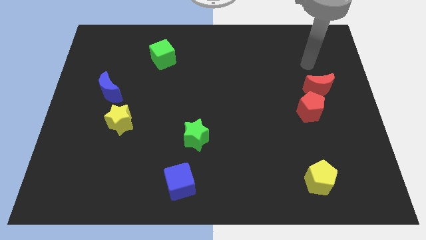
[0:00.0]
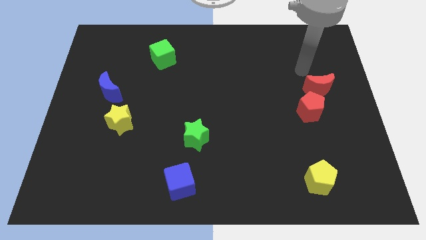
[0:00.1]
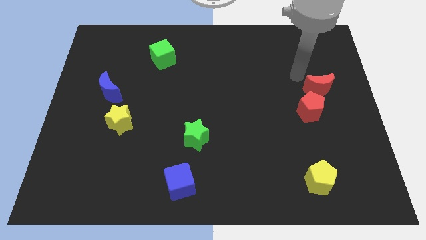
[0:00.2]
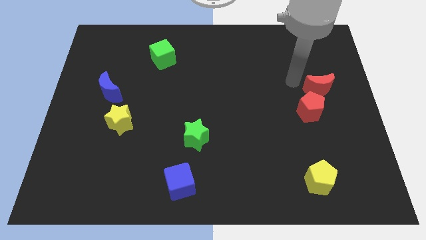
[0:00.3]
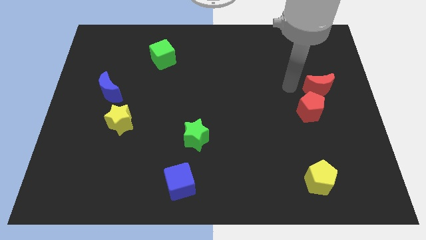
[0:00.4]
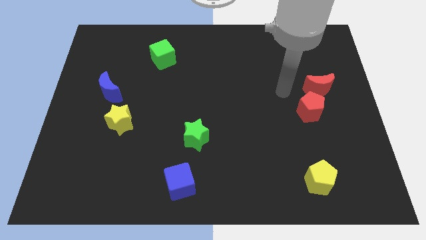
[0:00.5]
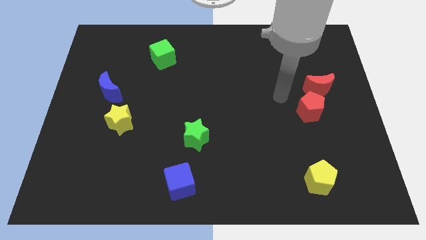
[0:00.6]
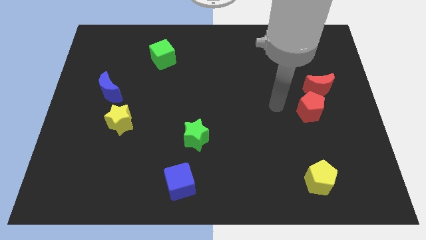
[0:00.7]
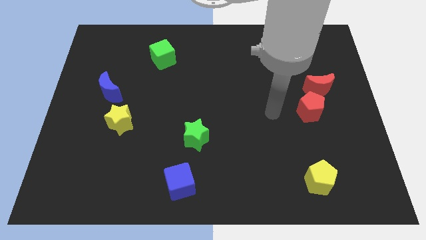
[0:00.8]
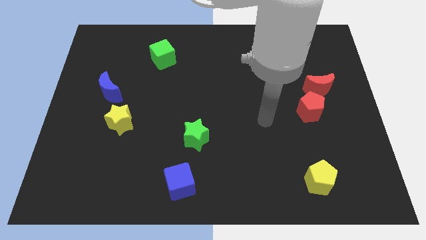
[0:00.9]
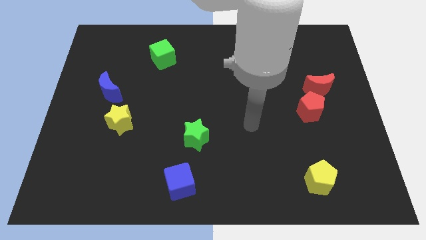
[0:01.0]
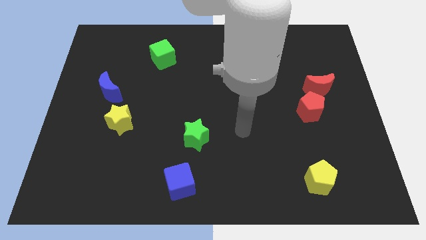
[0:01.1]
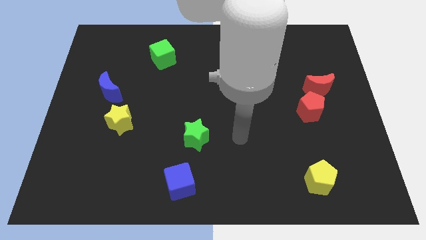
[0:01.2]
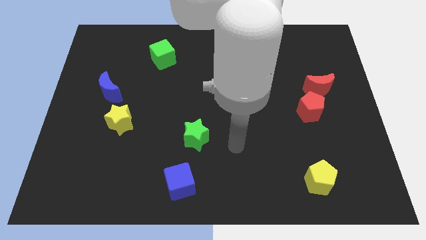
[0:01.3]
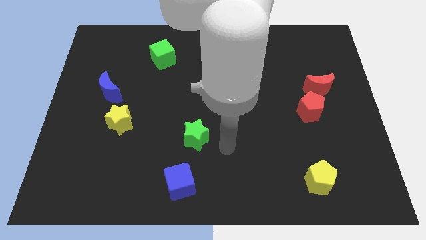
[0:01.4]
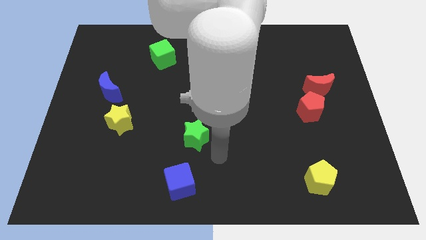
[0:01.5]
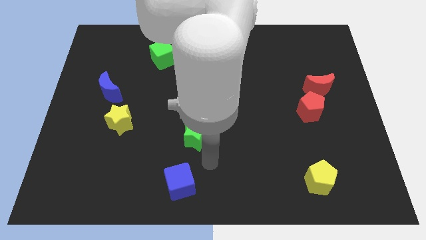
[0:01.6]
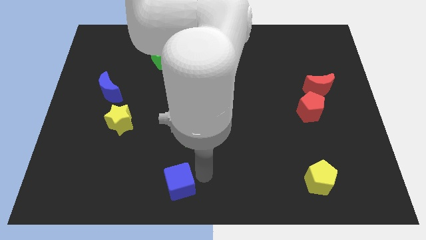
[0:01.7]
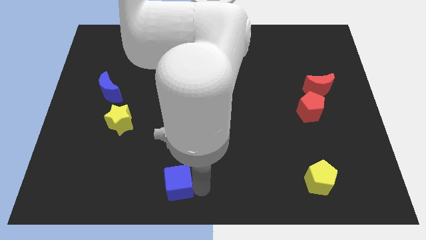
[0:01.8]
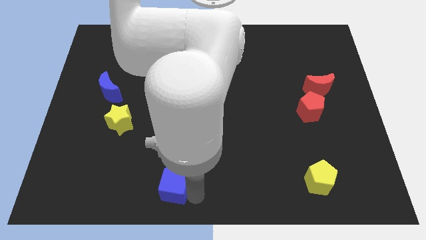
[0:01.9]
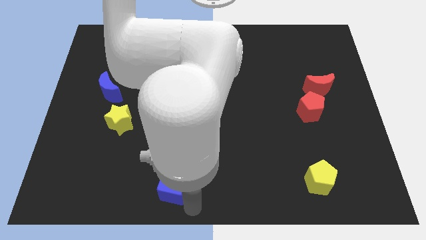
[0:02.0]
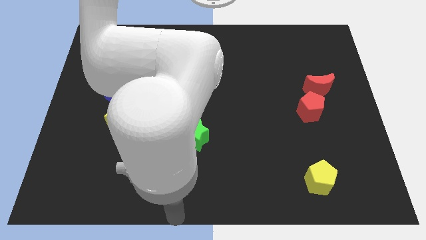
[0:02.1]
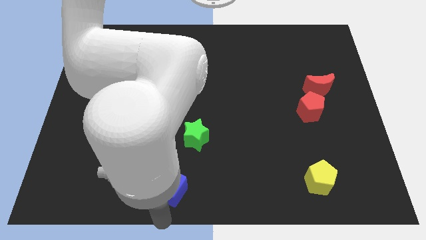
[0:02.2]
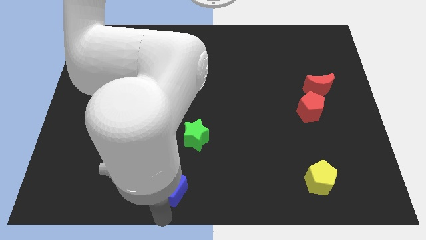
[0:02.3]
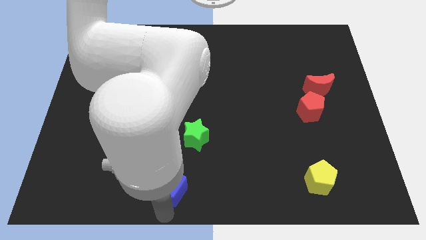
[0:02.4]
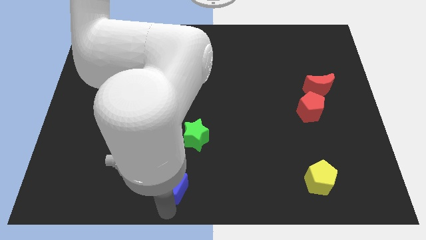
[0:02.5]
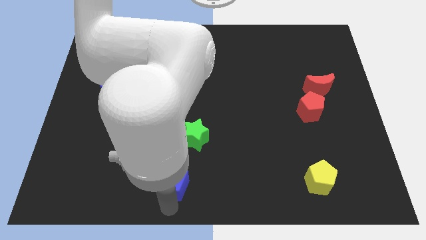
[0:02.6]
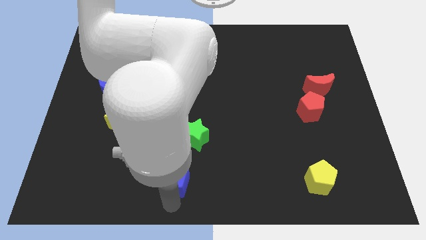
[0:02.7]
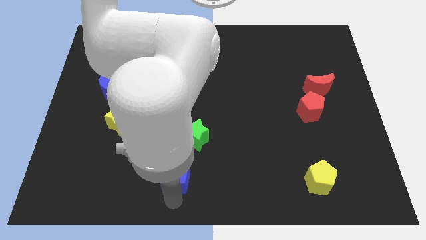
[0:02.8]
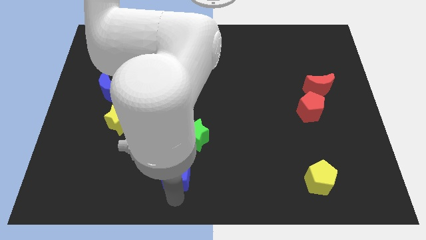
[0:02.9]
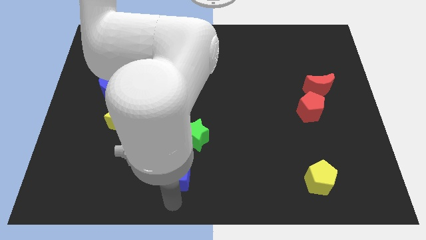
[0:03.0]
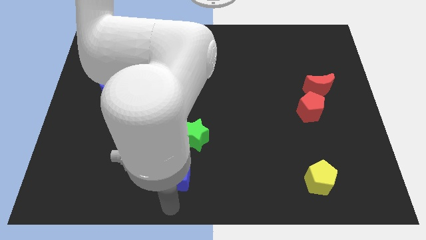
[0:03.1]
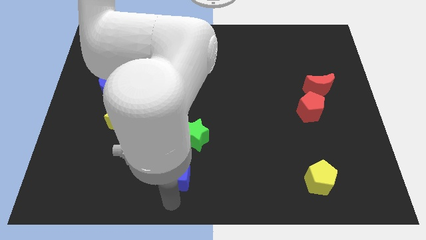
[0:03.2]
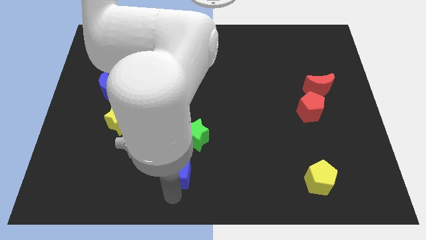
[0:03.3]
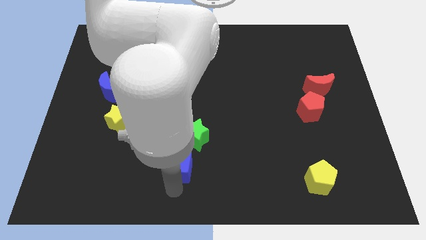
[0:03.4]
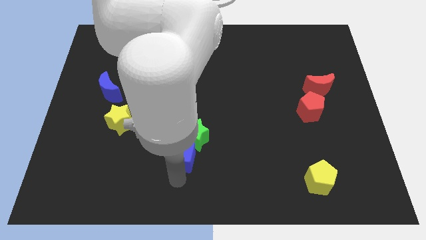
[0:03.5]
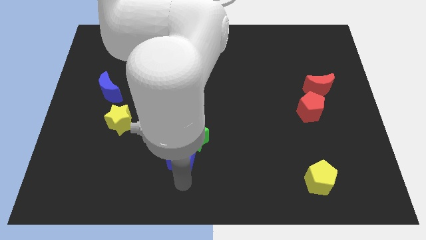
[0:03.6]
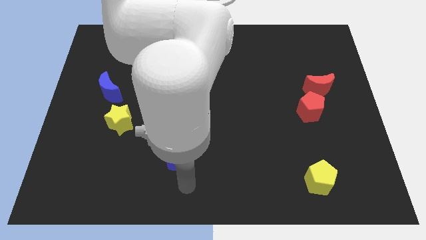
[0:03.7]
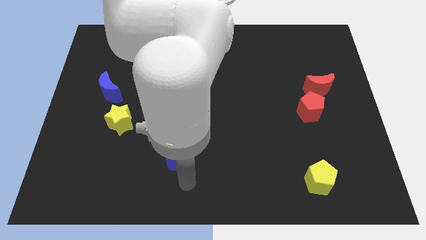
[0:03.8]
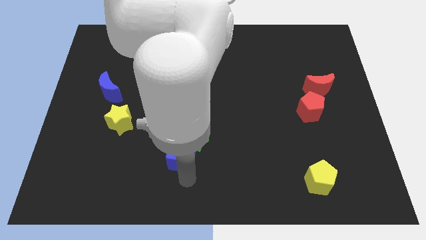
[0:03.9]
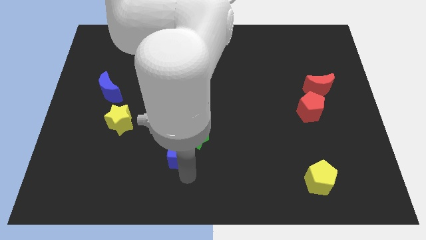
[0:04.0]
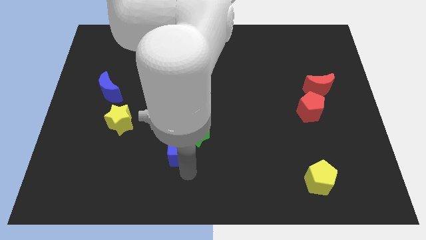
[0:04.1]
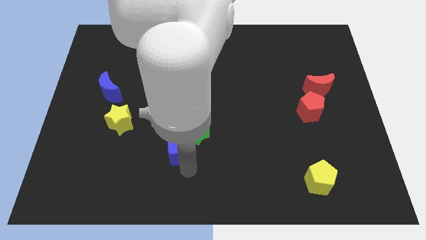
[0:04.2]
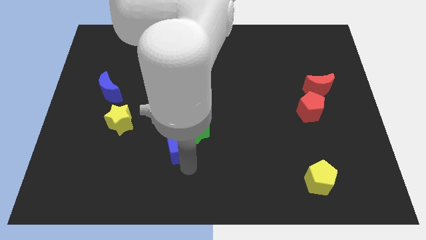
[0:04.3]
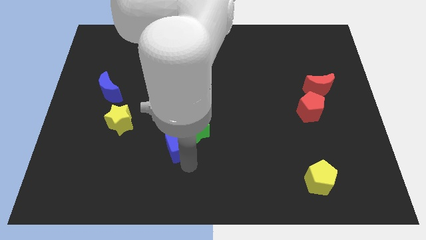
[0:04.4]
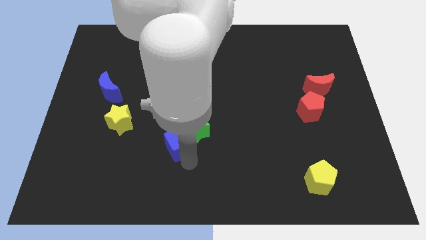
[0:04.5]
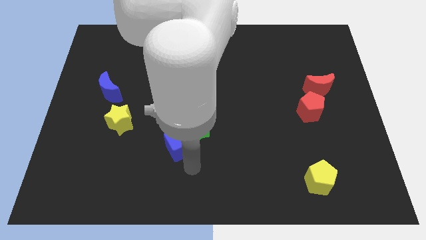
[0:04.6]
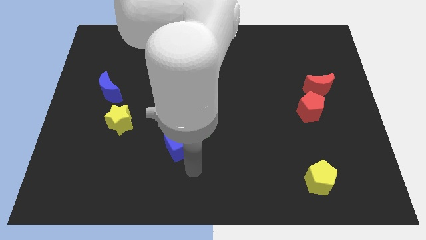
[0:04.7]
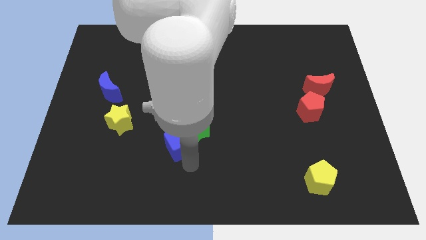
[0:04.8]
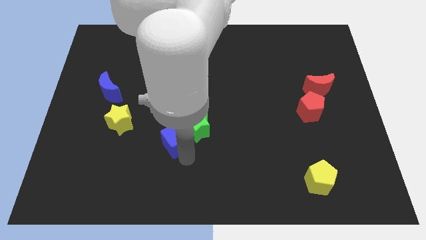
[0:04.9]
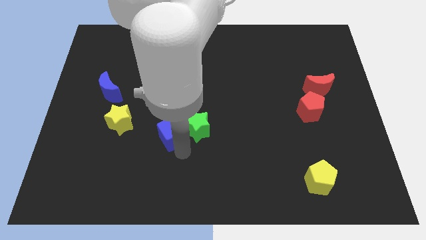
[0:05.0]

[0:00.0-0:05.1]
move the blue cube to the right of the yellow star

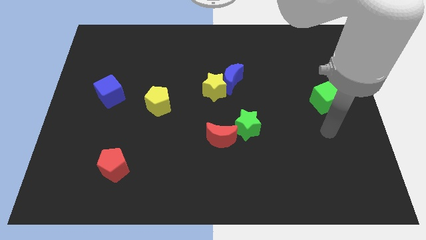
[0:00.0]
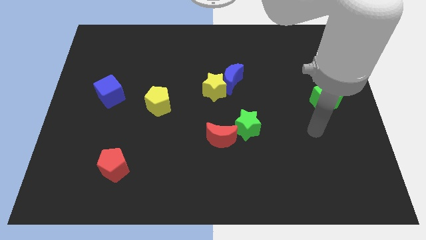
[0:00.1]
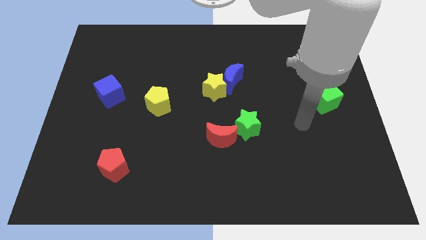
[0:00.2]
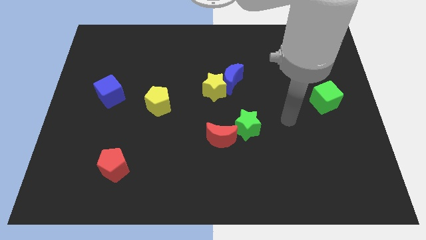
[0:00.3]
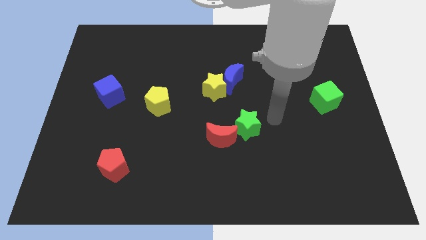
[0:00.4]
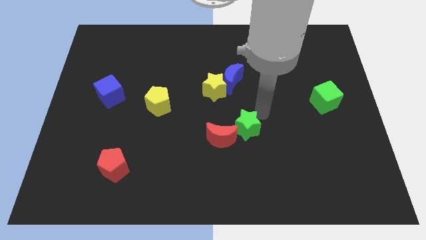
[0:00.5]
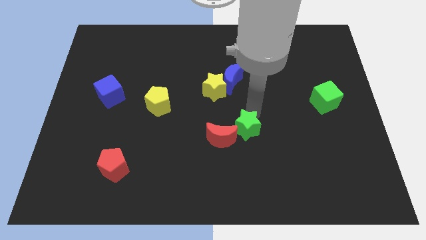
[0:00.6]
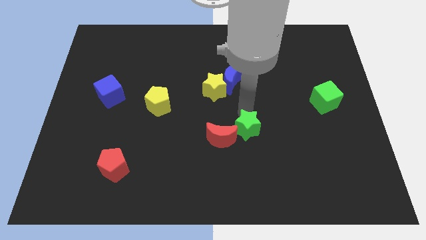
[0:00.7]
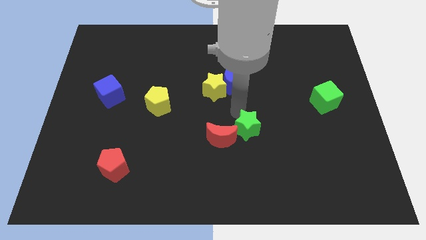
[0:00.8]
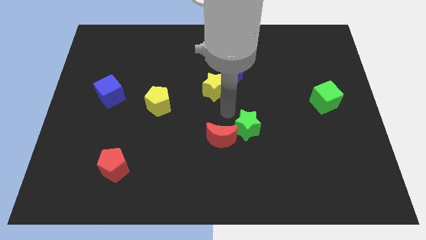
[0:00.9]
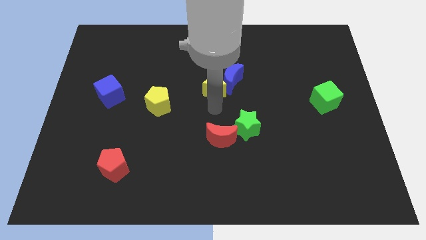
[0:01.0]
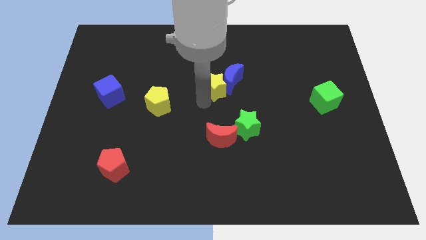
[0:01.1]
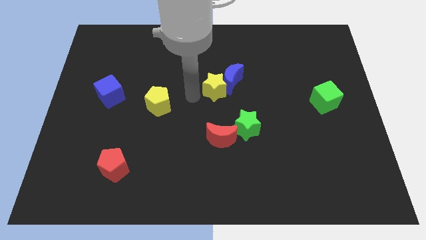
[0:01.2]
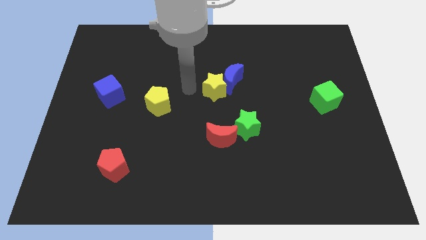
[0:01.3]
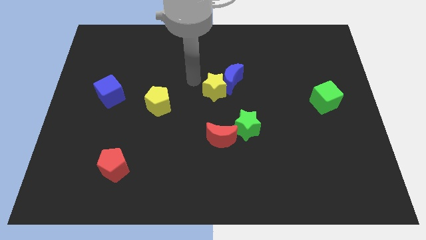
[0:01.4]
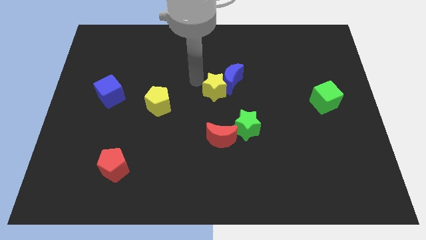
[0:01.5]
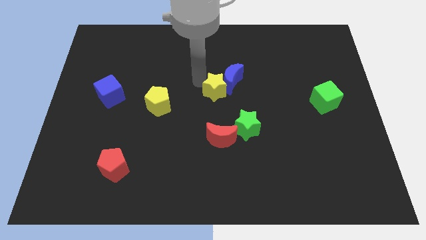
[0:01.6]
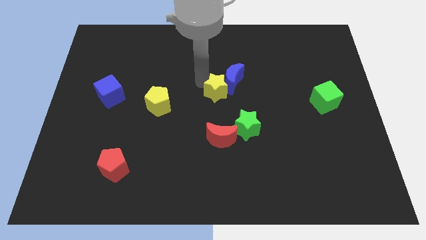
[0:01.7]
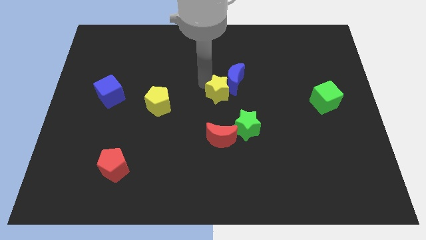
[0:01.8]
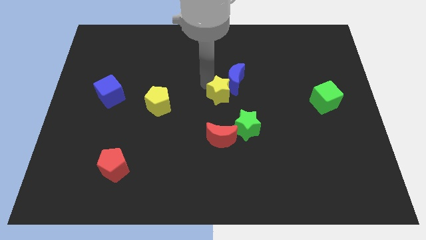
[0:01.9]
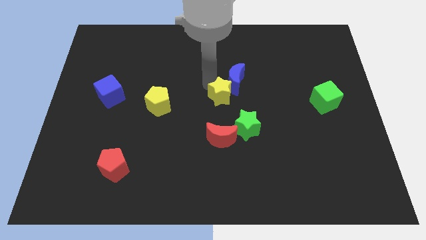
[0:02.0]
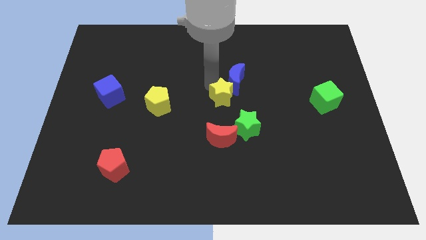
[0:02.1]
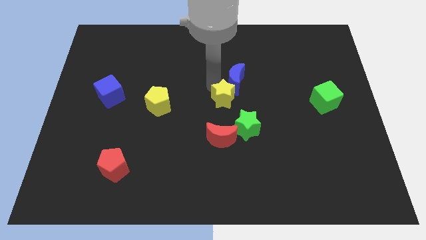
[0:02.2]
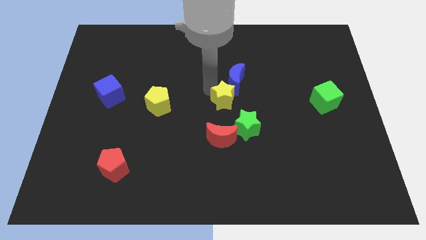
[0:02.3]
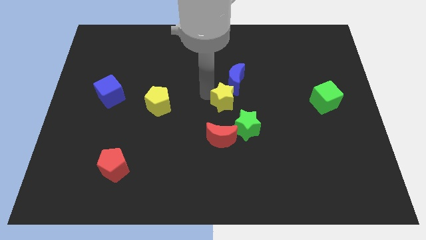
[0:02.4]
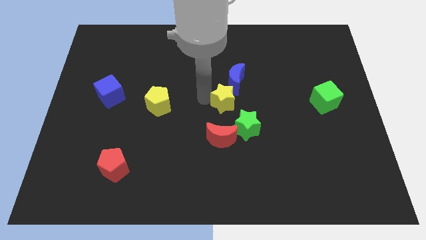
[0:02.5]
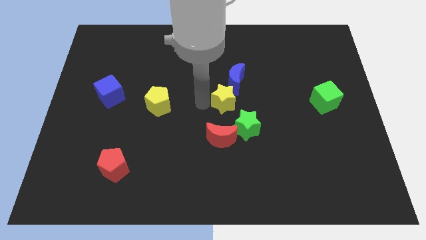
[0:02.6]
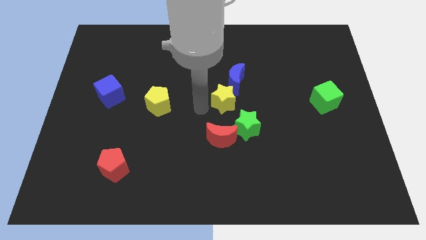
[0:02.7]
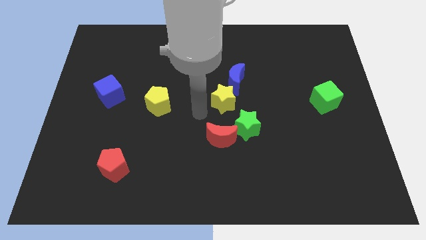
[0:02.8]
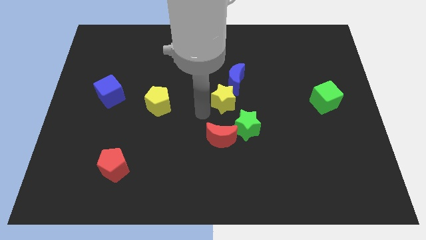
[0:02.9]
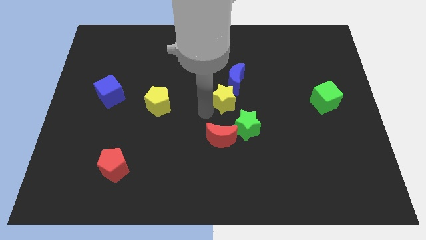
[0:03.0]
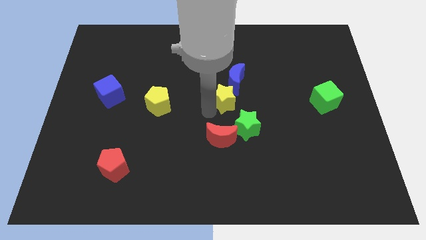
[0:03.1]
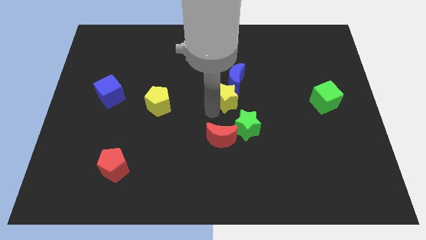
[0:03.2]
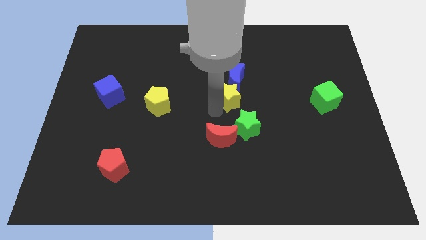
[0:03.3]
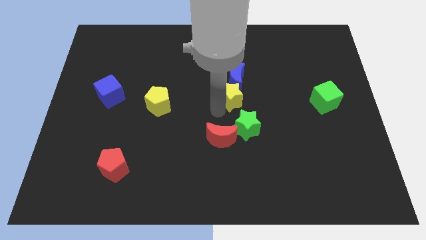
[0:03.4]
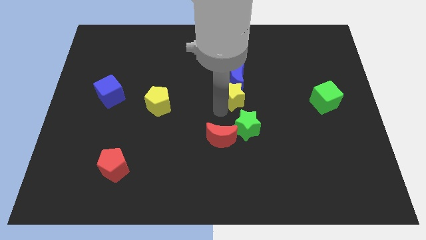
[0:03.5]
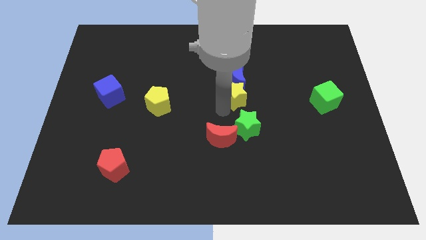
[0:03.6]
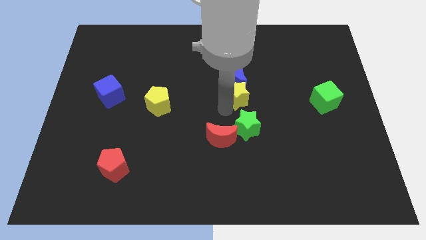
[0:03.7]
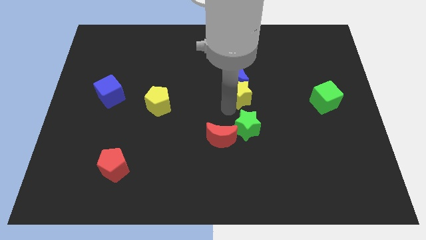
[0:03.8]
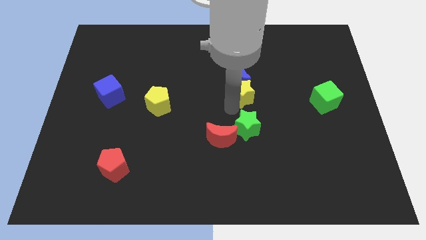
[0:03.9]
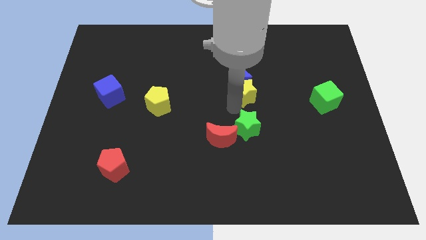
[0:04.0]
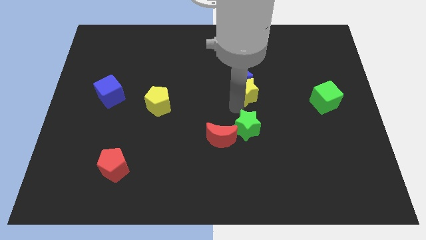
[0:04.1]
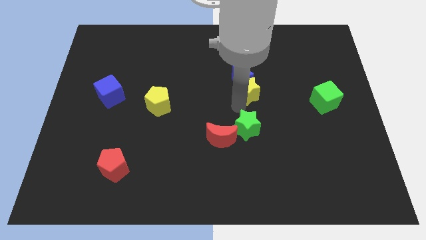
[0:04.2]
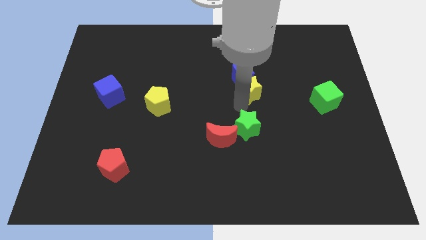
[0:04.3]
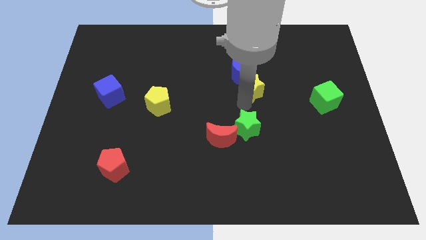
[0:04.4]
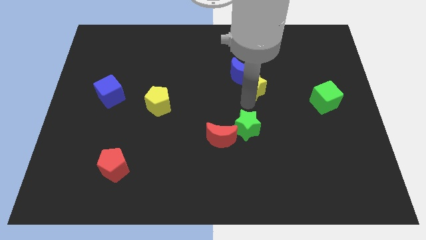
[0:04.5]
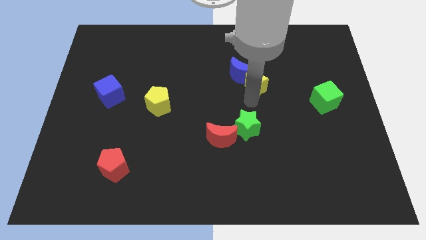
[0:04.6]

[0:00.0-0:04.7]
slide the yellow star right of the blue moon
